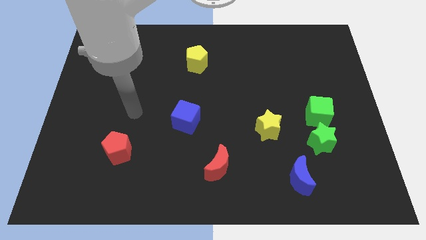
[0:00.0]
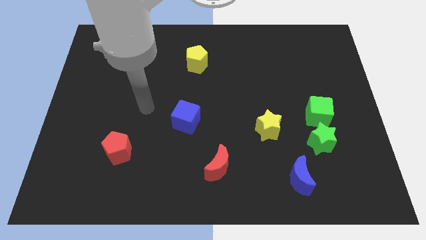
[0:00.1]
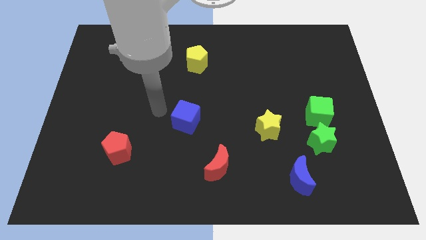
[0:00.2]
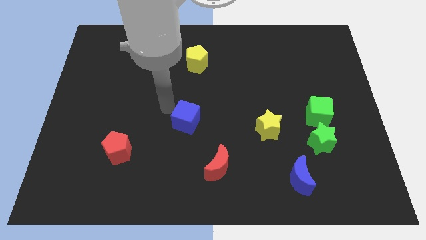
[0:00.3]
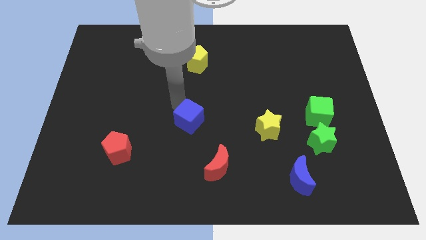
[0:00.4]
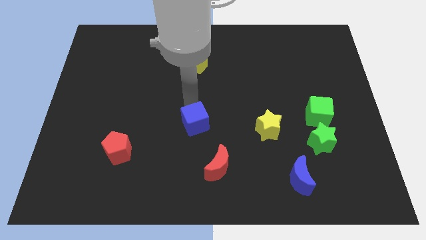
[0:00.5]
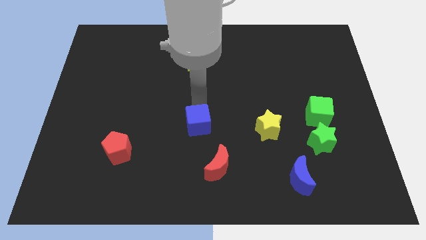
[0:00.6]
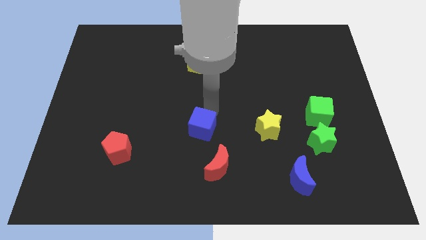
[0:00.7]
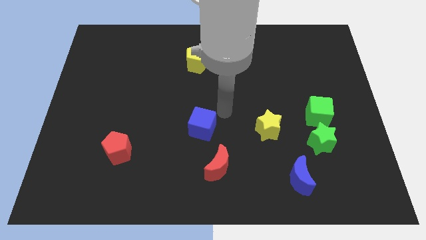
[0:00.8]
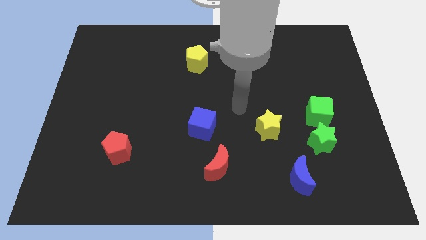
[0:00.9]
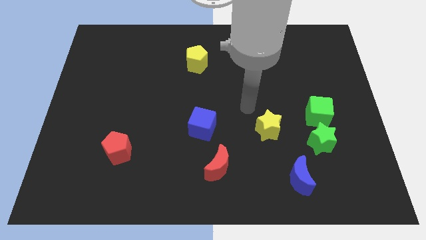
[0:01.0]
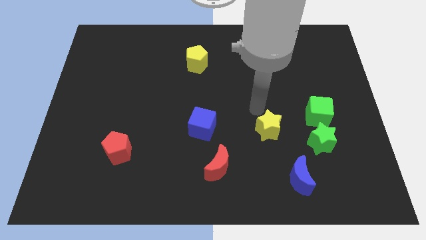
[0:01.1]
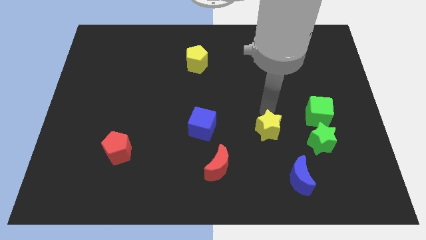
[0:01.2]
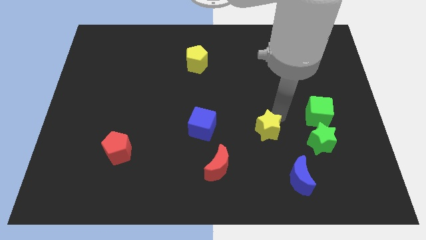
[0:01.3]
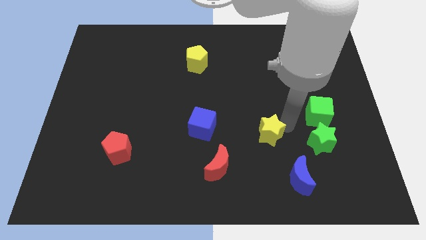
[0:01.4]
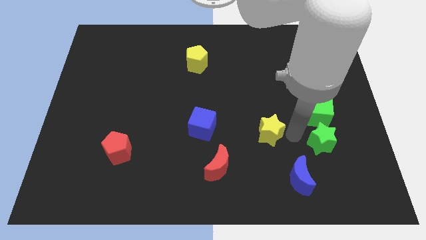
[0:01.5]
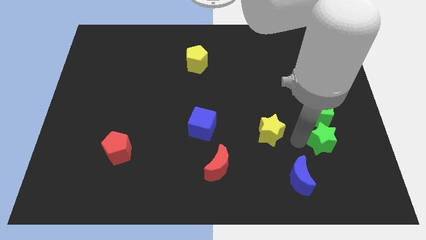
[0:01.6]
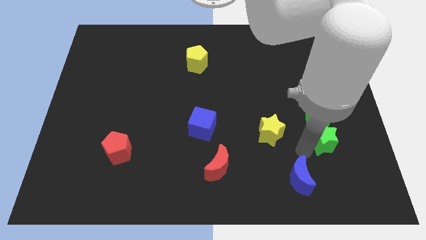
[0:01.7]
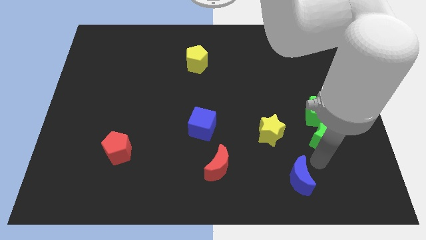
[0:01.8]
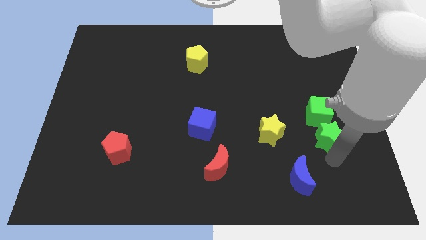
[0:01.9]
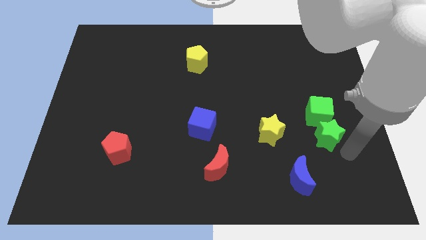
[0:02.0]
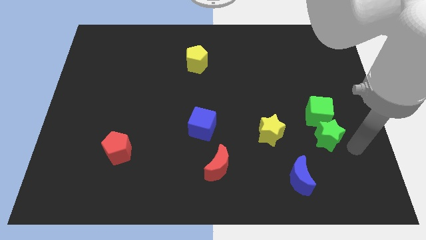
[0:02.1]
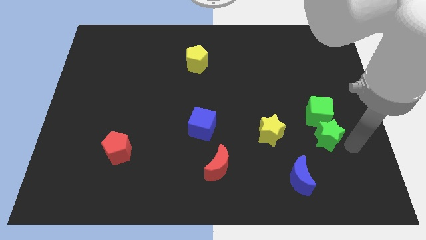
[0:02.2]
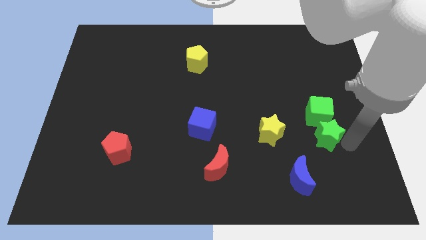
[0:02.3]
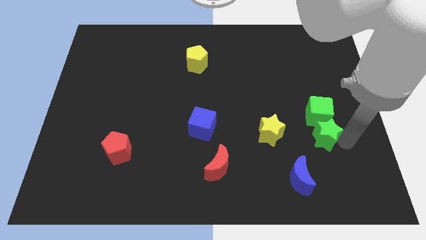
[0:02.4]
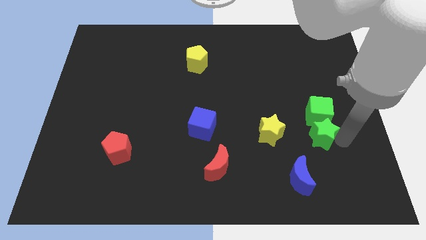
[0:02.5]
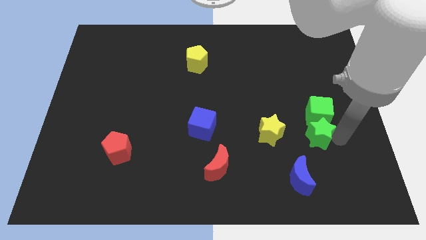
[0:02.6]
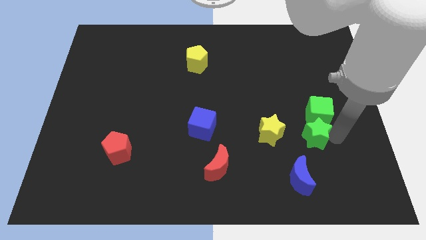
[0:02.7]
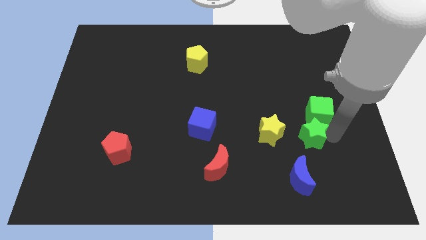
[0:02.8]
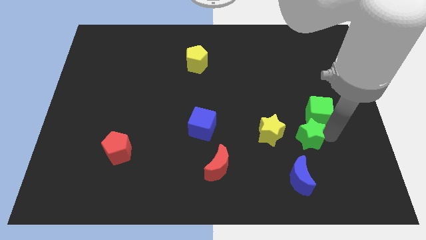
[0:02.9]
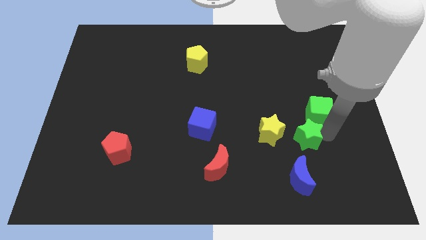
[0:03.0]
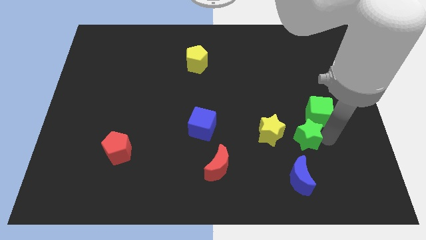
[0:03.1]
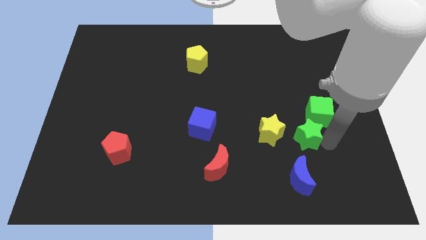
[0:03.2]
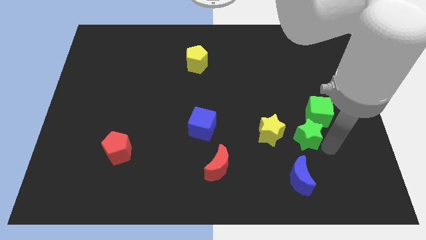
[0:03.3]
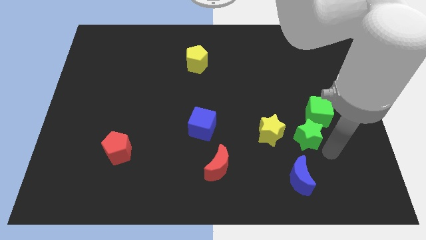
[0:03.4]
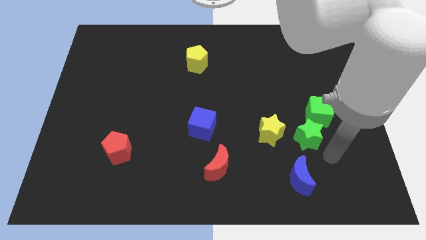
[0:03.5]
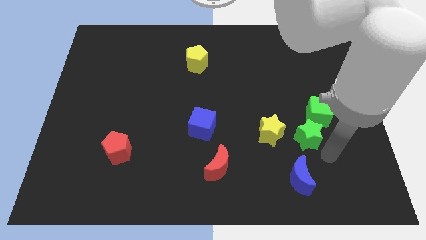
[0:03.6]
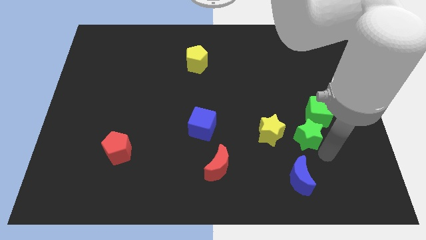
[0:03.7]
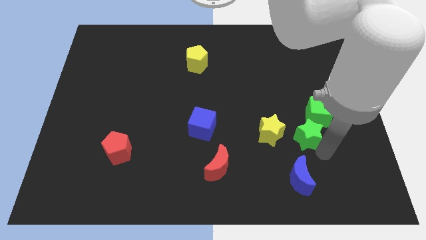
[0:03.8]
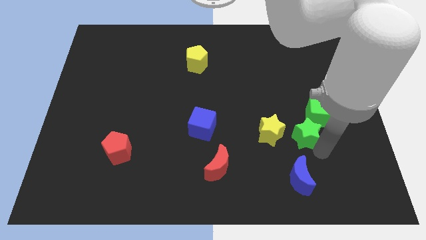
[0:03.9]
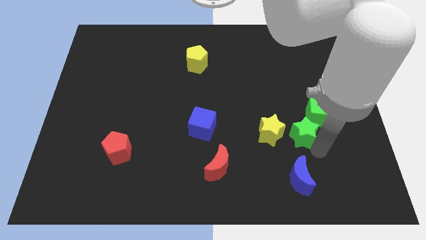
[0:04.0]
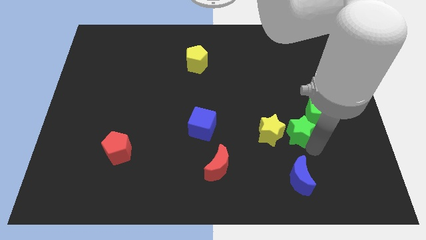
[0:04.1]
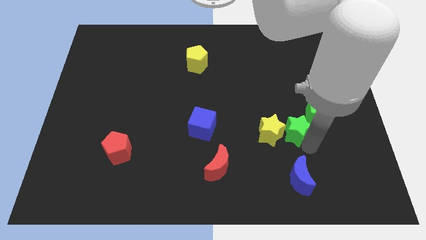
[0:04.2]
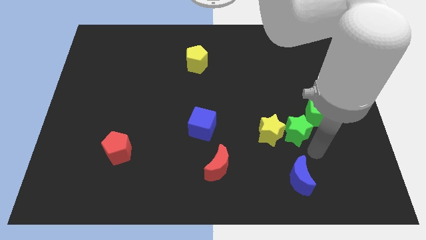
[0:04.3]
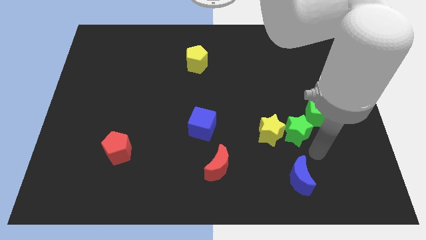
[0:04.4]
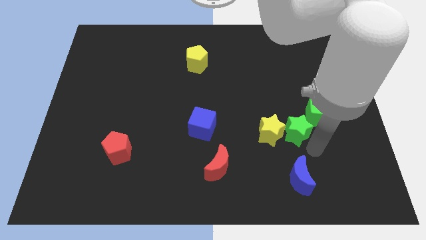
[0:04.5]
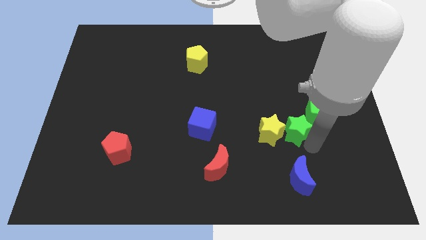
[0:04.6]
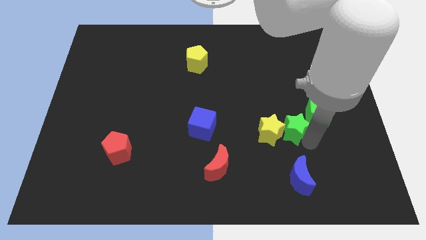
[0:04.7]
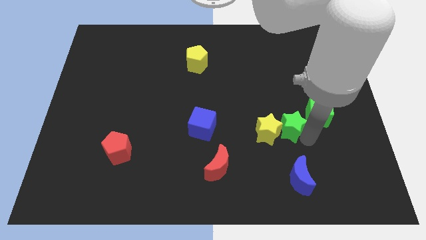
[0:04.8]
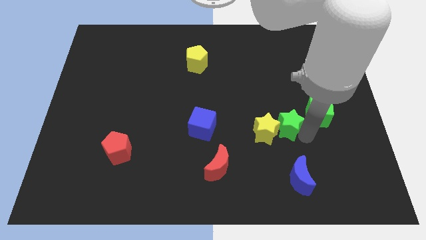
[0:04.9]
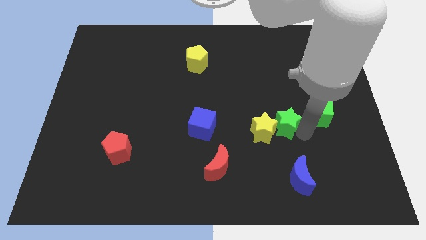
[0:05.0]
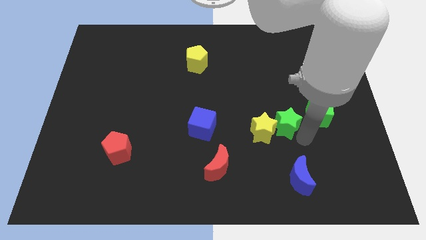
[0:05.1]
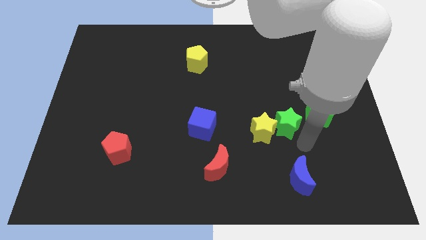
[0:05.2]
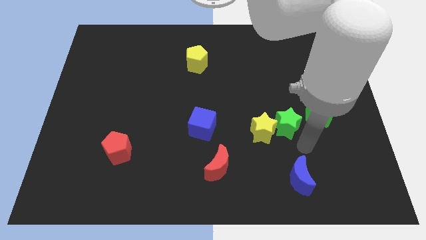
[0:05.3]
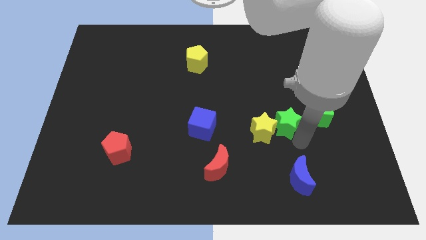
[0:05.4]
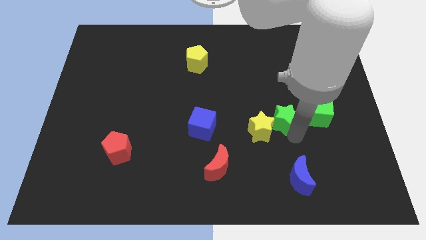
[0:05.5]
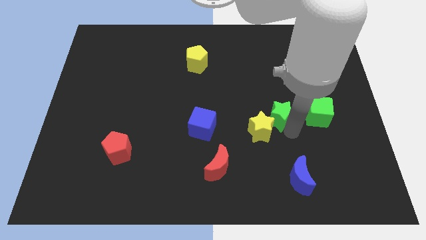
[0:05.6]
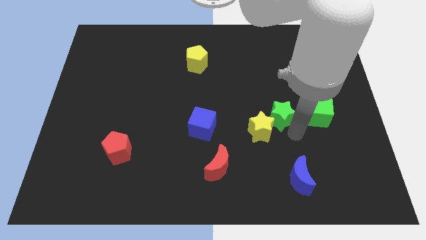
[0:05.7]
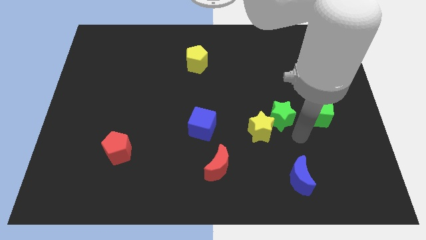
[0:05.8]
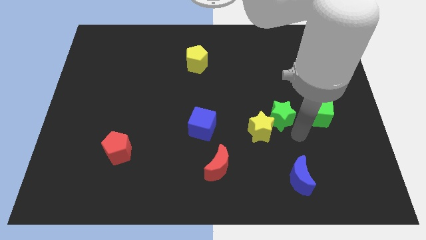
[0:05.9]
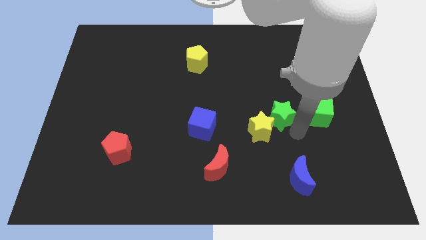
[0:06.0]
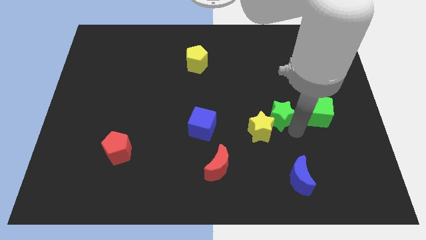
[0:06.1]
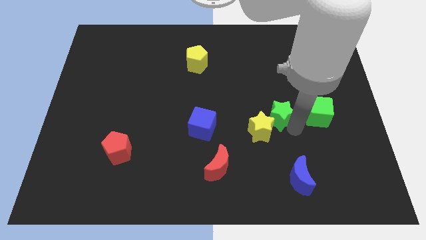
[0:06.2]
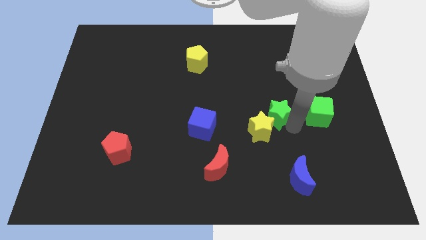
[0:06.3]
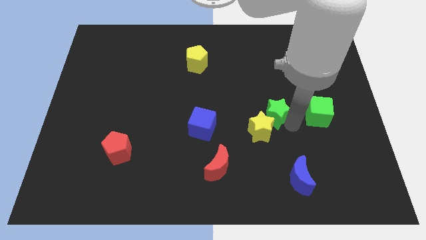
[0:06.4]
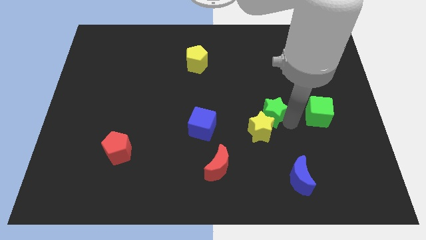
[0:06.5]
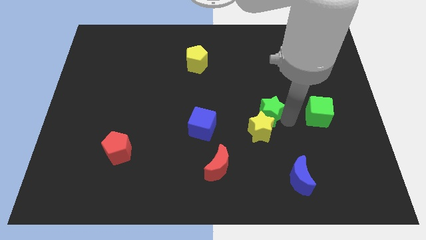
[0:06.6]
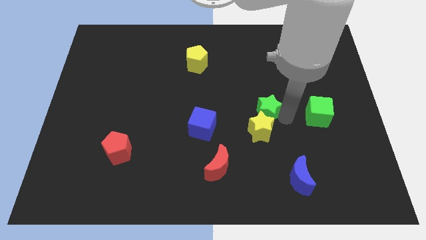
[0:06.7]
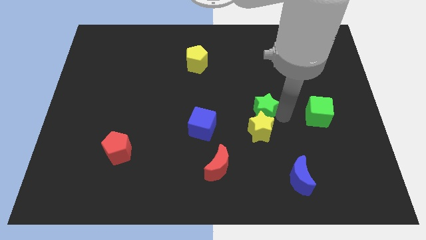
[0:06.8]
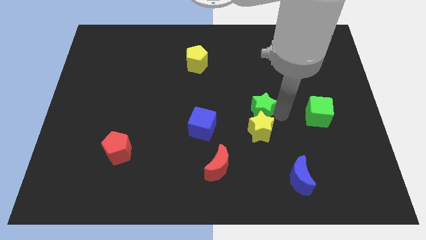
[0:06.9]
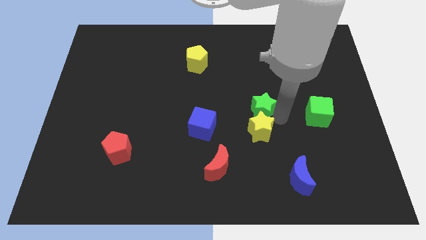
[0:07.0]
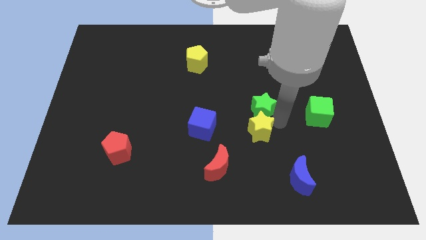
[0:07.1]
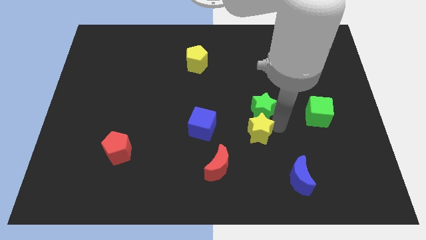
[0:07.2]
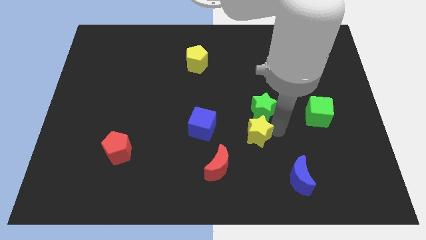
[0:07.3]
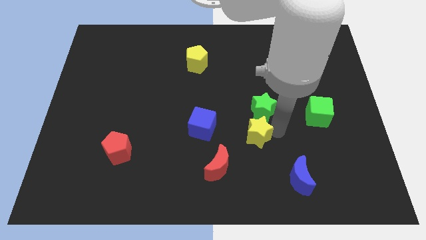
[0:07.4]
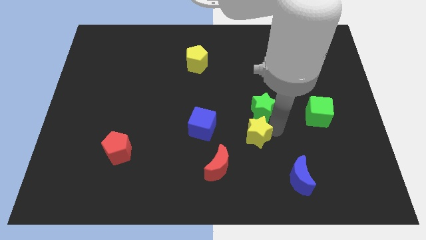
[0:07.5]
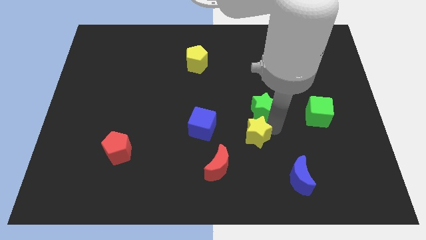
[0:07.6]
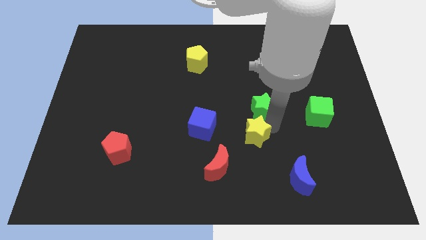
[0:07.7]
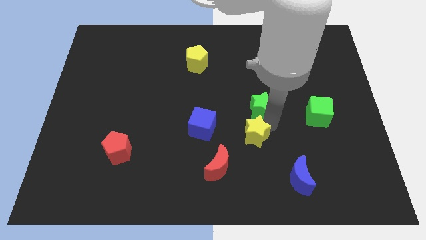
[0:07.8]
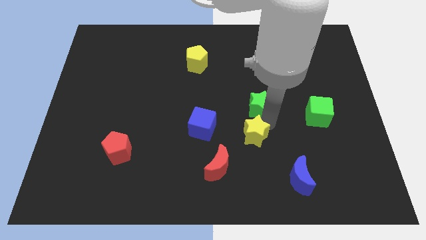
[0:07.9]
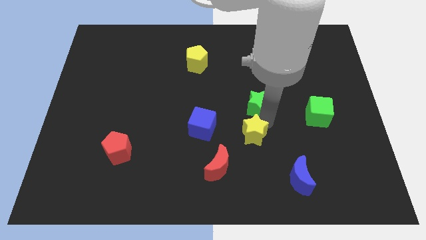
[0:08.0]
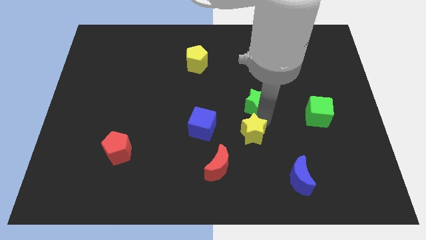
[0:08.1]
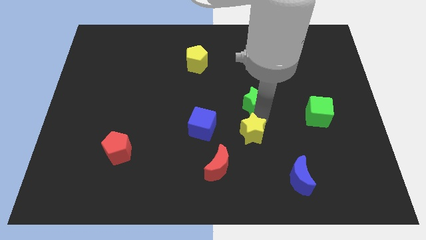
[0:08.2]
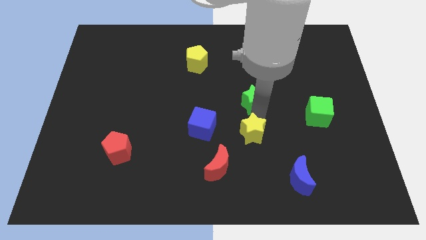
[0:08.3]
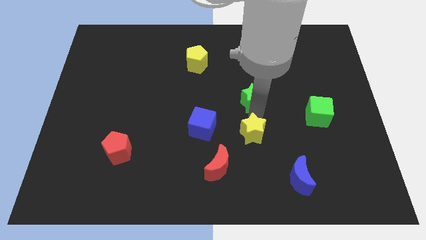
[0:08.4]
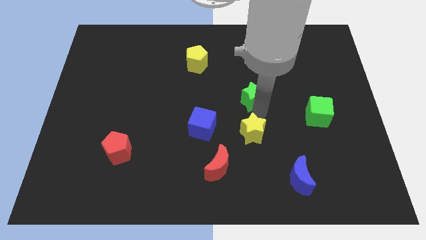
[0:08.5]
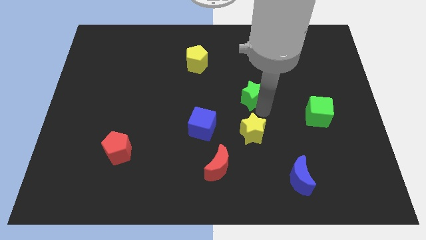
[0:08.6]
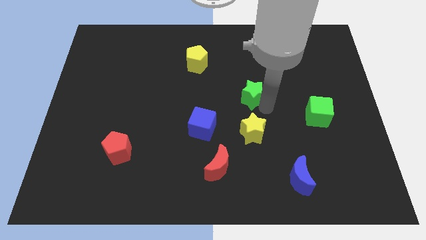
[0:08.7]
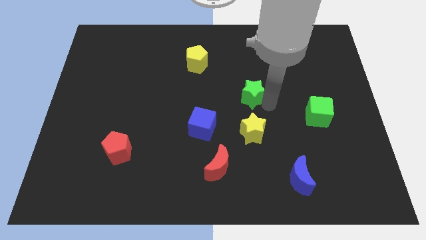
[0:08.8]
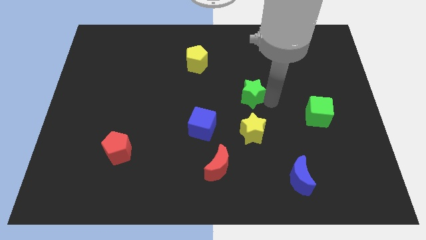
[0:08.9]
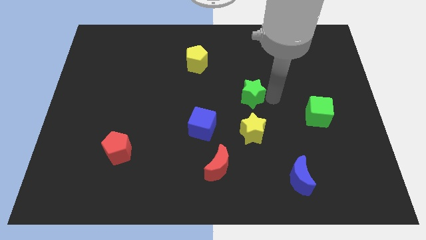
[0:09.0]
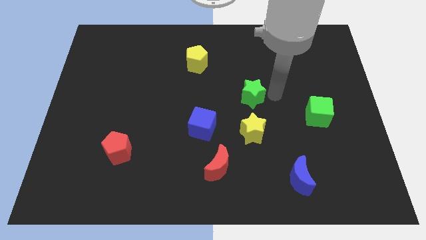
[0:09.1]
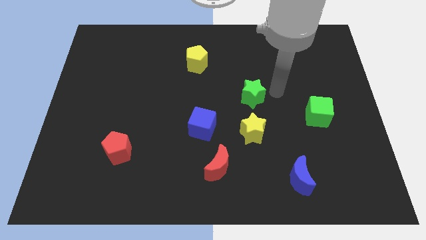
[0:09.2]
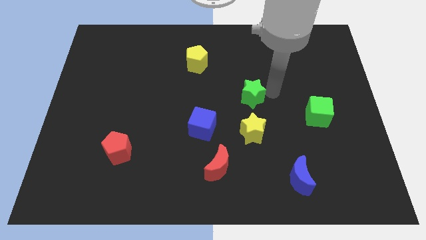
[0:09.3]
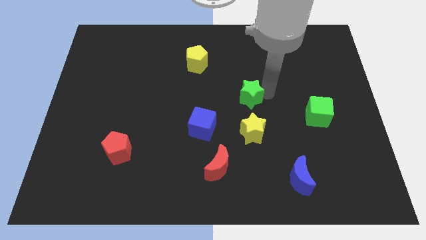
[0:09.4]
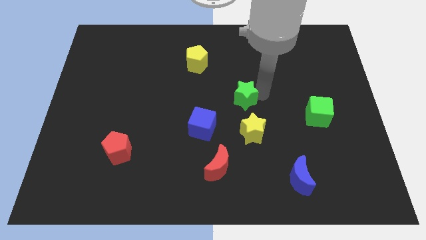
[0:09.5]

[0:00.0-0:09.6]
slide the green star to the top right side of the blue cube
